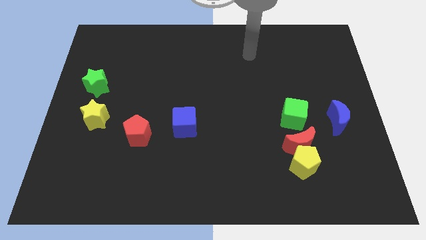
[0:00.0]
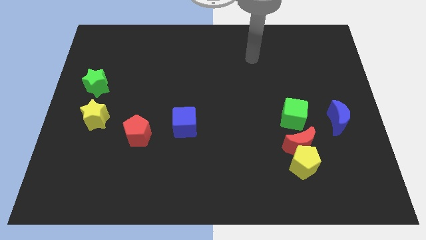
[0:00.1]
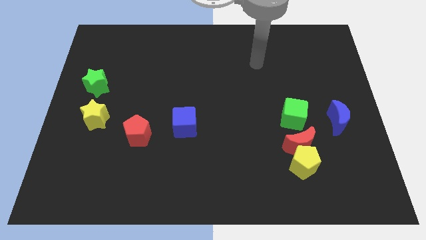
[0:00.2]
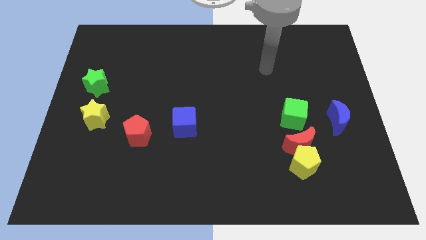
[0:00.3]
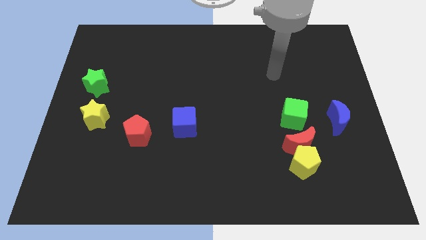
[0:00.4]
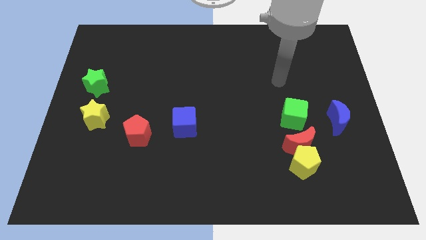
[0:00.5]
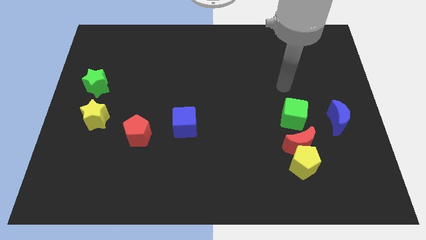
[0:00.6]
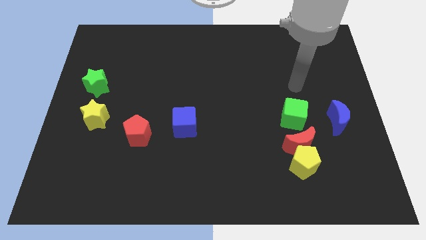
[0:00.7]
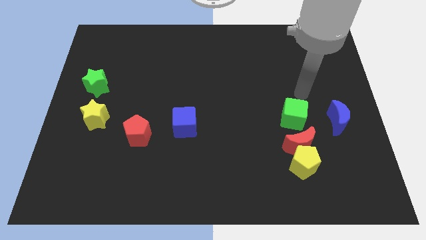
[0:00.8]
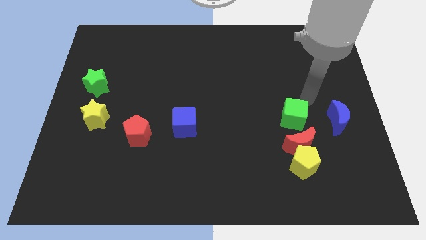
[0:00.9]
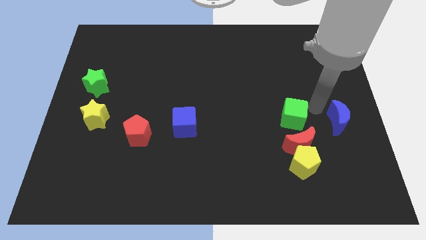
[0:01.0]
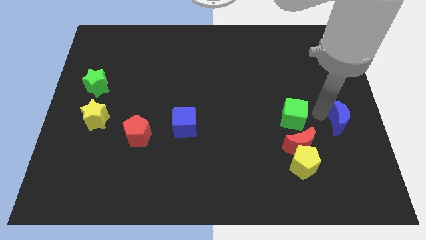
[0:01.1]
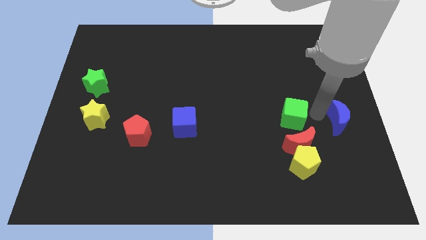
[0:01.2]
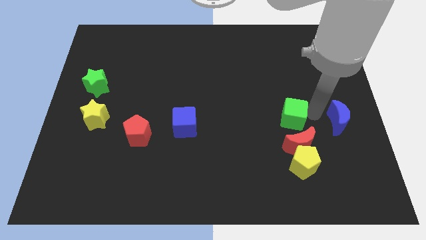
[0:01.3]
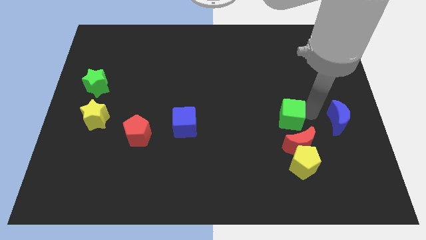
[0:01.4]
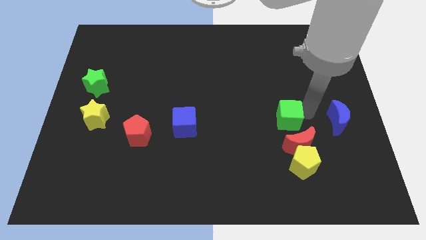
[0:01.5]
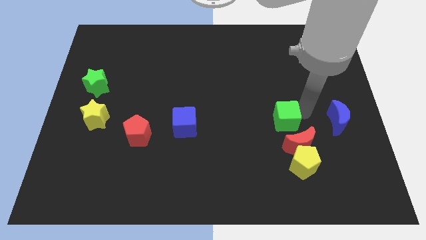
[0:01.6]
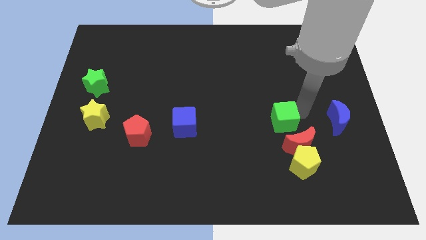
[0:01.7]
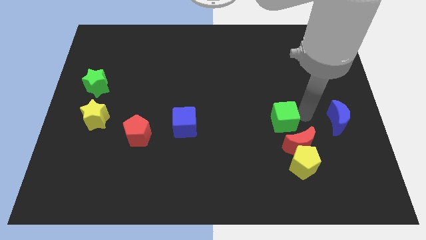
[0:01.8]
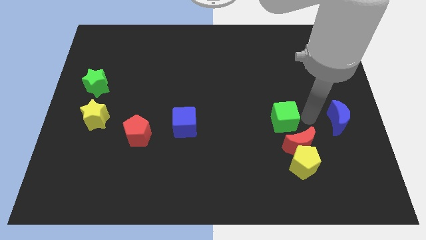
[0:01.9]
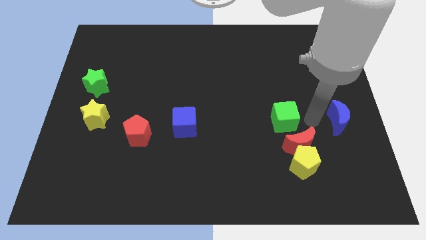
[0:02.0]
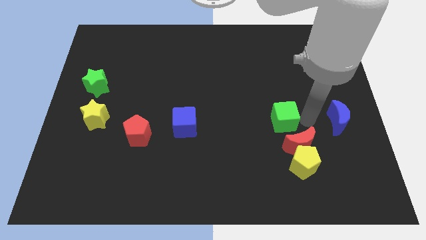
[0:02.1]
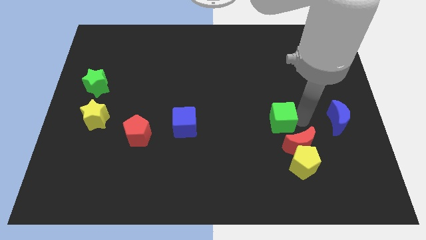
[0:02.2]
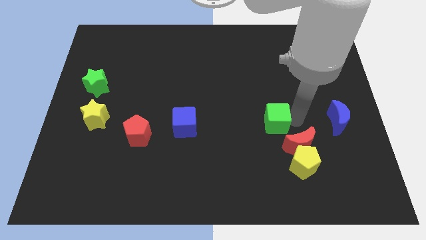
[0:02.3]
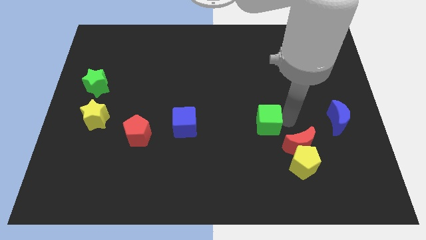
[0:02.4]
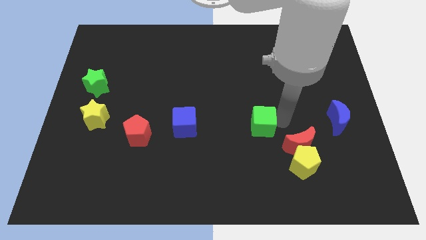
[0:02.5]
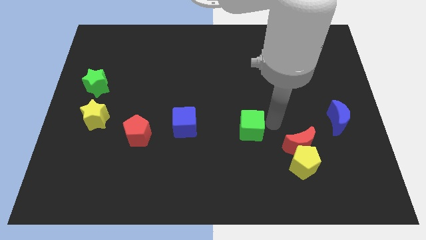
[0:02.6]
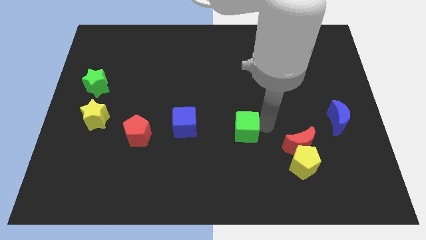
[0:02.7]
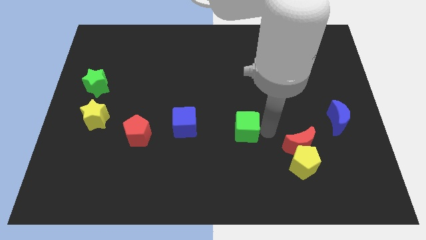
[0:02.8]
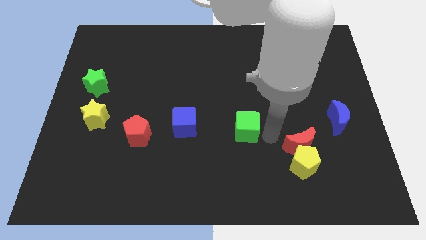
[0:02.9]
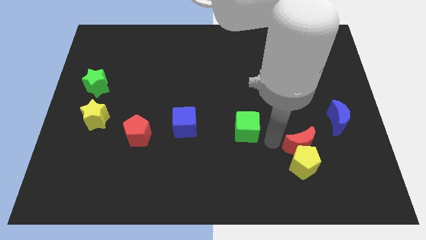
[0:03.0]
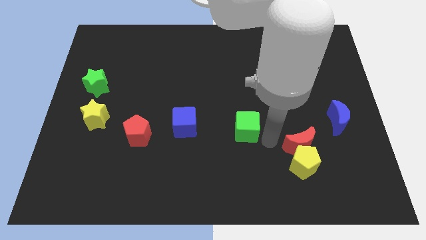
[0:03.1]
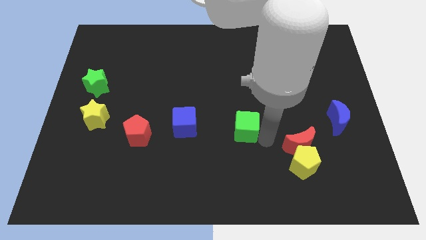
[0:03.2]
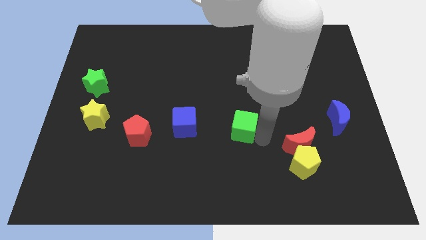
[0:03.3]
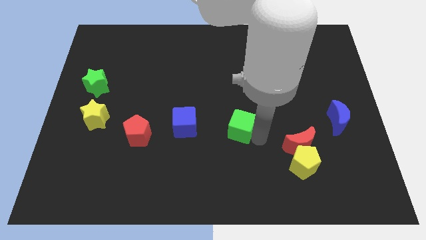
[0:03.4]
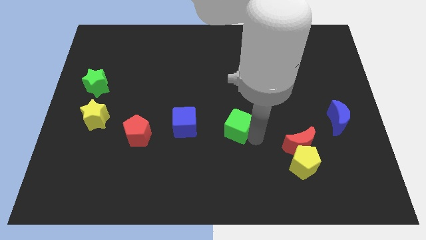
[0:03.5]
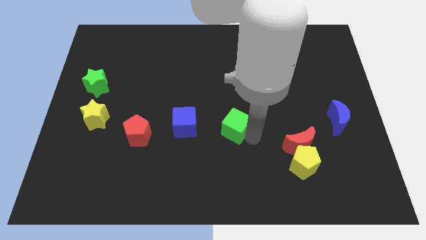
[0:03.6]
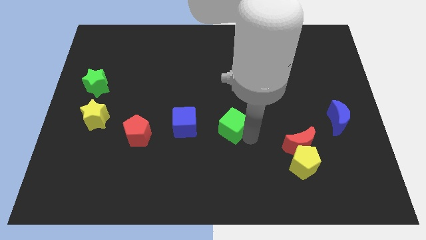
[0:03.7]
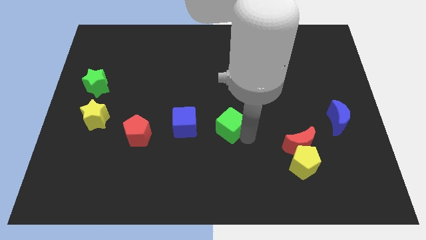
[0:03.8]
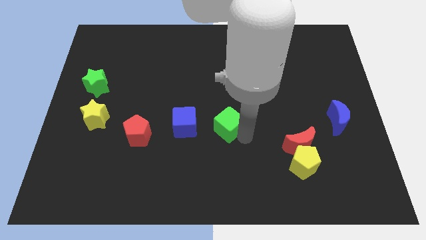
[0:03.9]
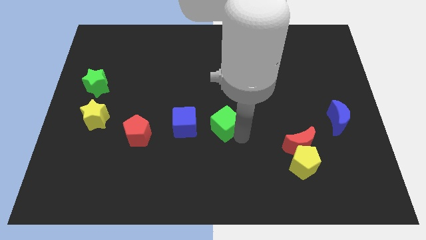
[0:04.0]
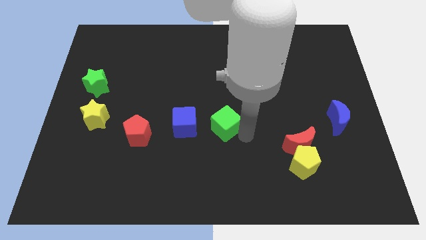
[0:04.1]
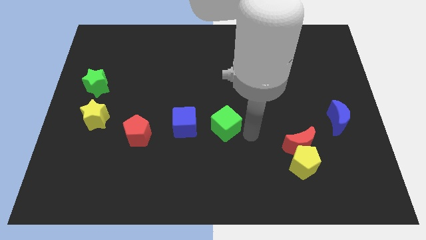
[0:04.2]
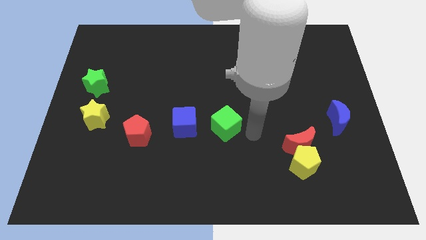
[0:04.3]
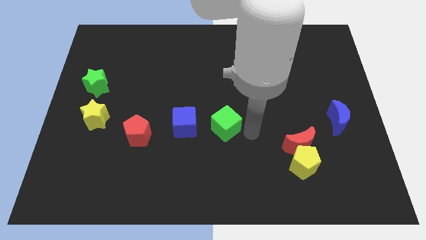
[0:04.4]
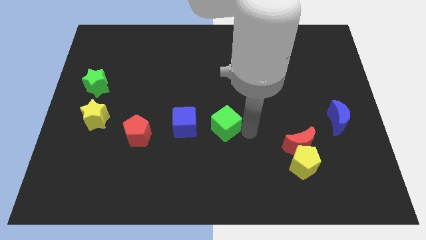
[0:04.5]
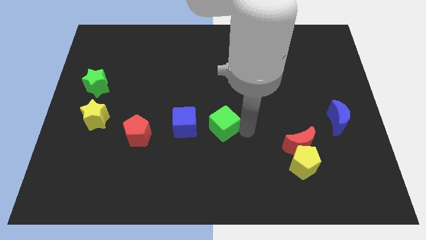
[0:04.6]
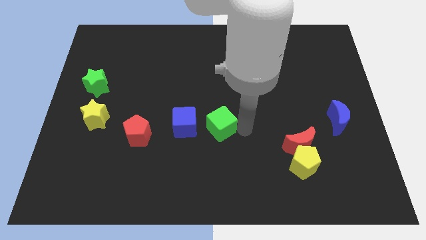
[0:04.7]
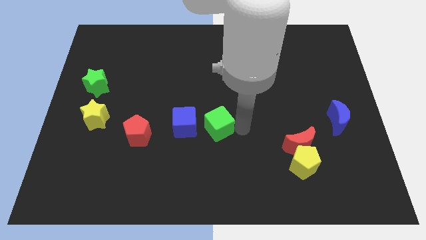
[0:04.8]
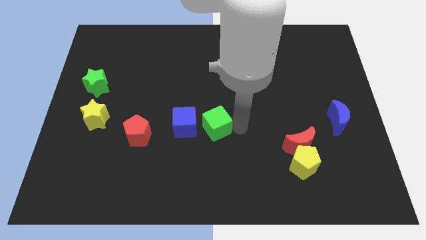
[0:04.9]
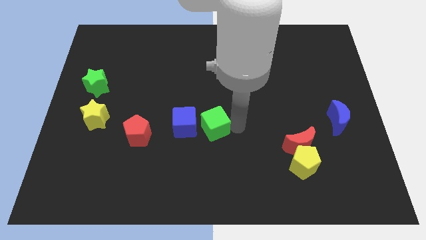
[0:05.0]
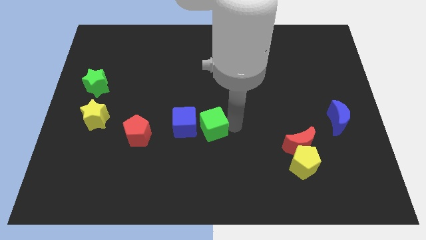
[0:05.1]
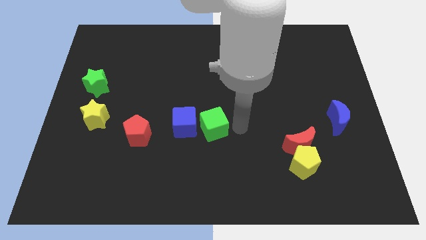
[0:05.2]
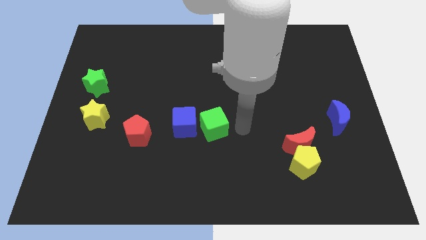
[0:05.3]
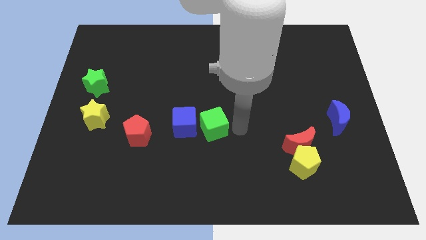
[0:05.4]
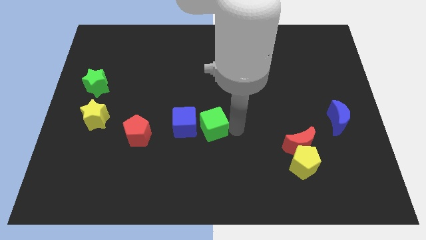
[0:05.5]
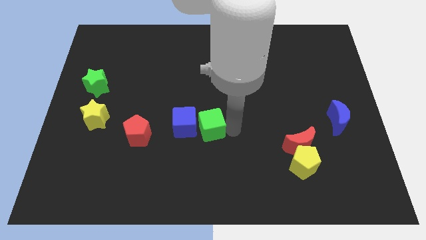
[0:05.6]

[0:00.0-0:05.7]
push the green cube close to the blue cube

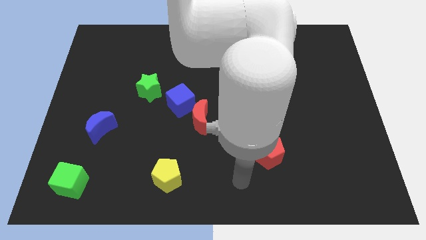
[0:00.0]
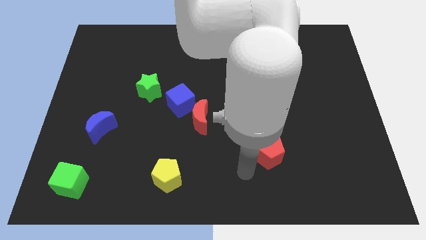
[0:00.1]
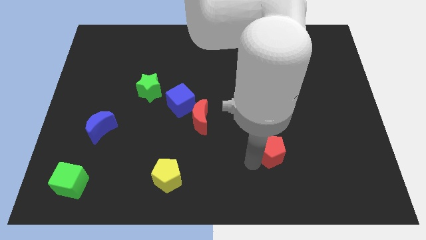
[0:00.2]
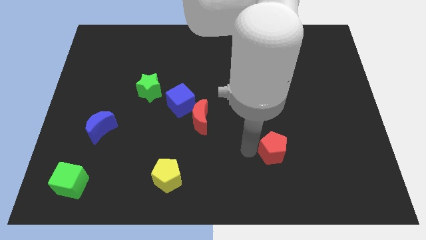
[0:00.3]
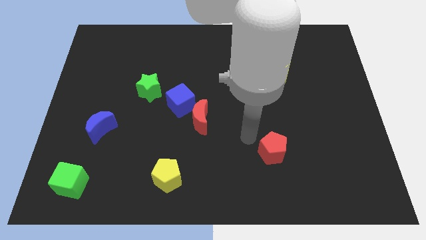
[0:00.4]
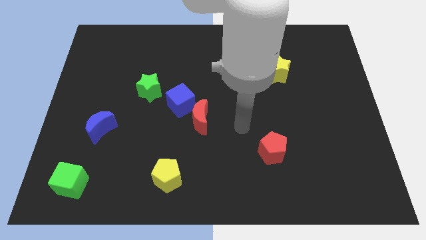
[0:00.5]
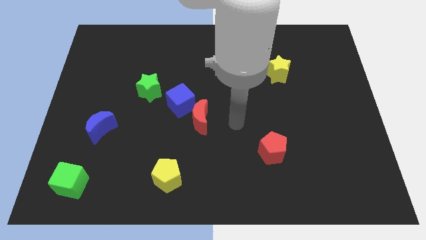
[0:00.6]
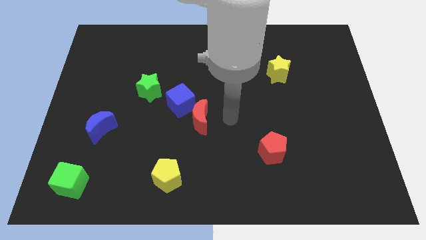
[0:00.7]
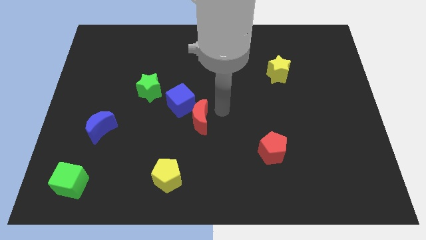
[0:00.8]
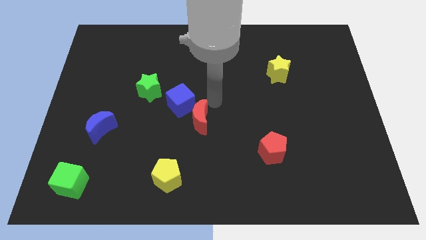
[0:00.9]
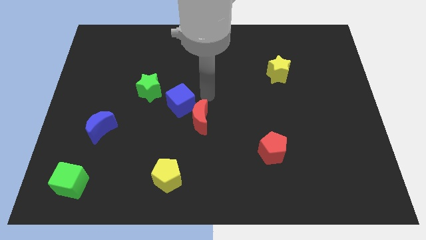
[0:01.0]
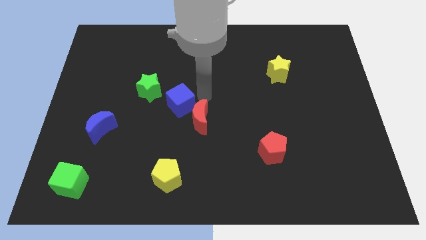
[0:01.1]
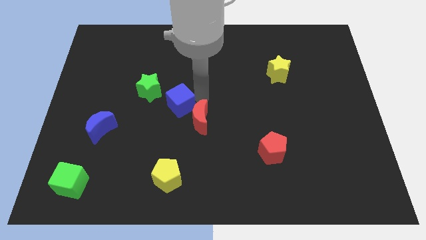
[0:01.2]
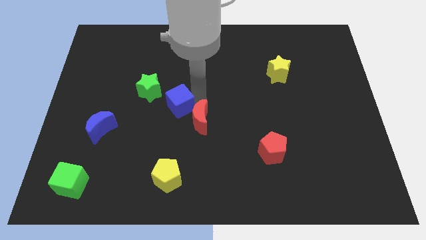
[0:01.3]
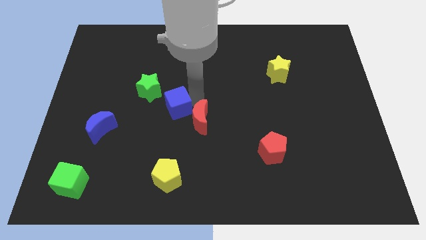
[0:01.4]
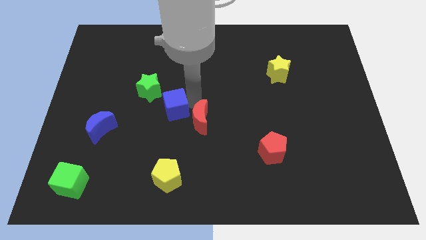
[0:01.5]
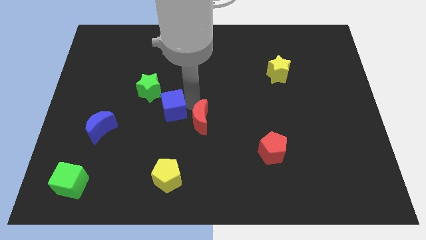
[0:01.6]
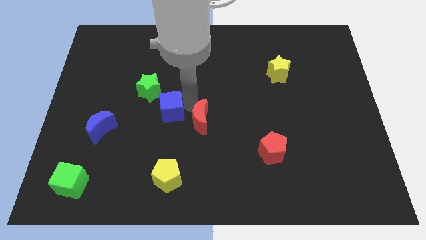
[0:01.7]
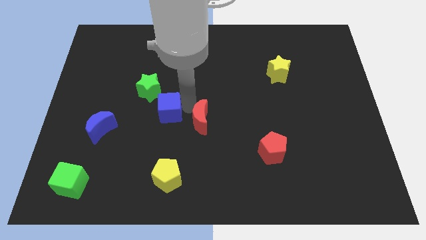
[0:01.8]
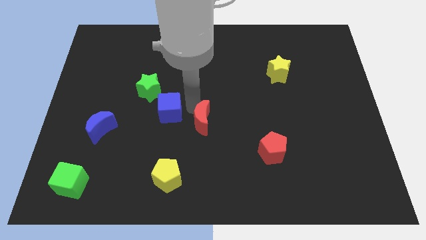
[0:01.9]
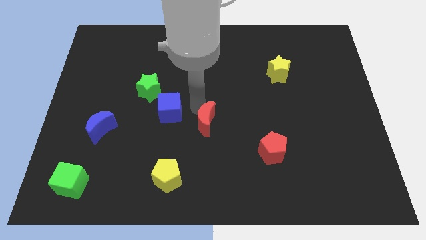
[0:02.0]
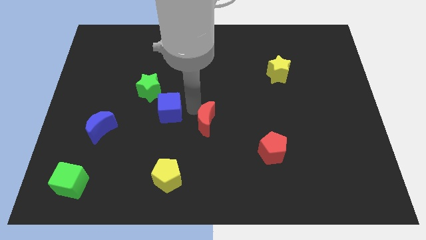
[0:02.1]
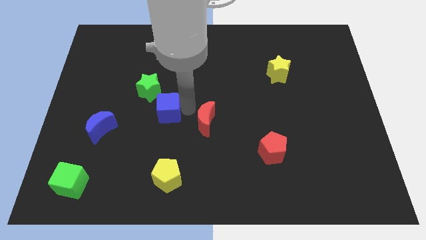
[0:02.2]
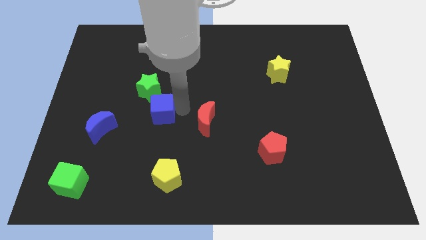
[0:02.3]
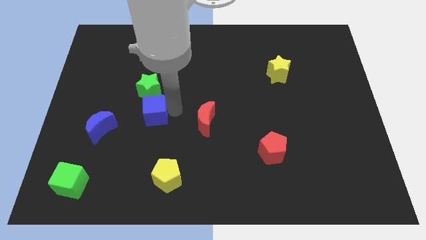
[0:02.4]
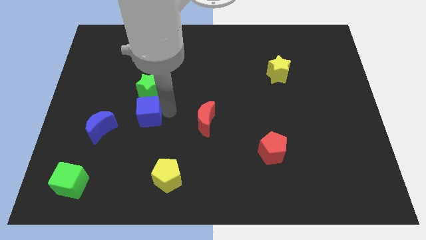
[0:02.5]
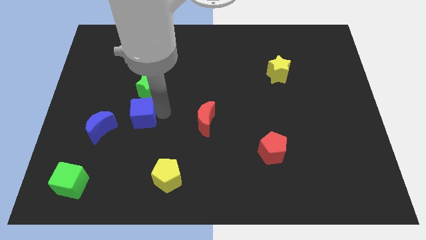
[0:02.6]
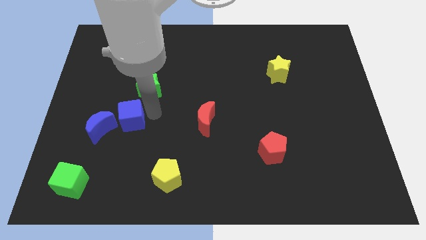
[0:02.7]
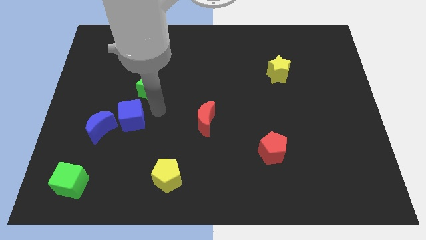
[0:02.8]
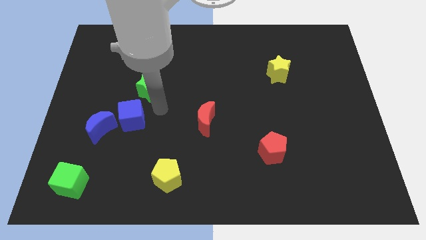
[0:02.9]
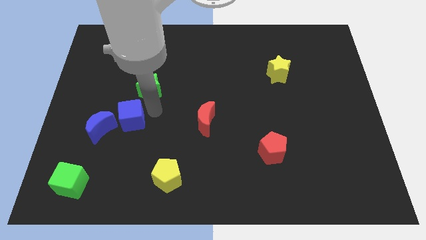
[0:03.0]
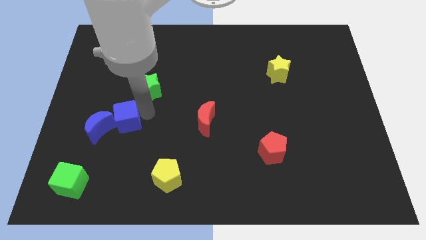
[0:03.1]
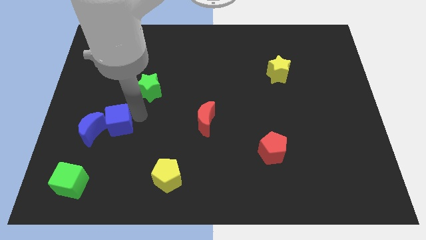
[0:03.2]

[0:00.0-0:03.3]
slide the blue cube towards the blue moon
